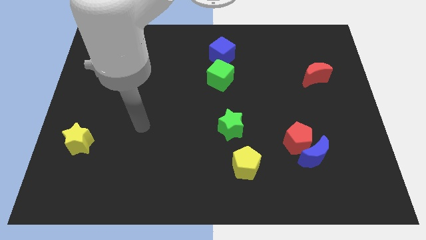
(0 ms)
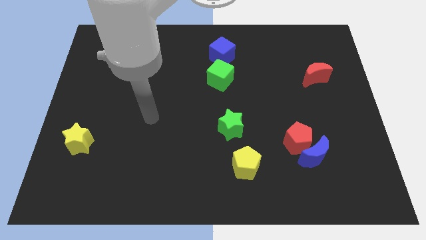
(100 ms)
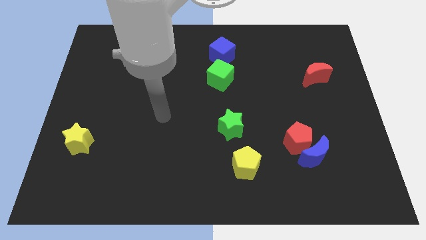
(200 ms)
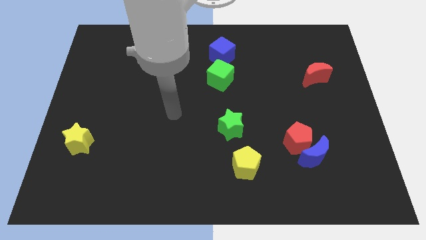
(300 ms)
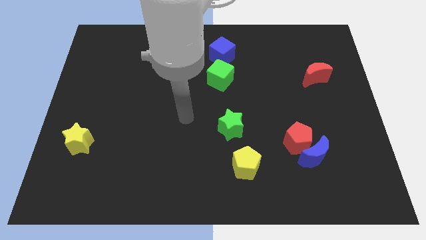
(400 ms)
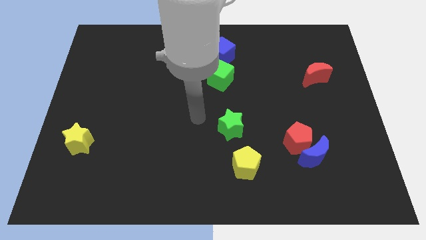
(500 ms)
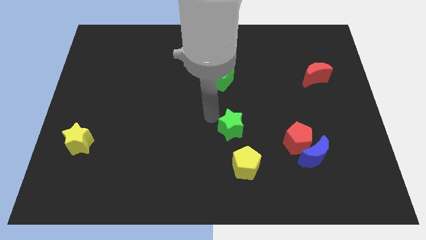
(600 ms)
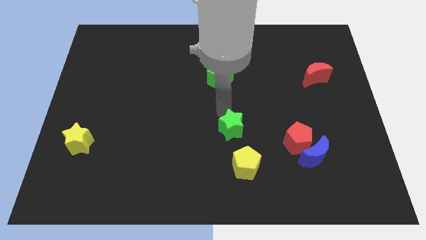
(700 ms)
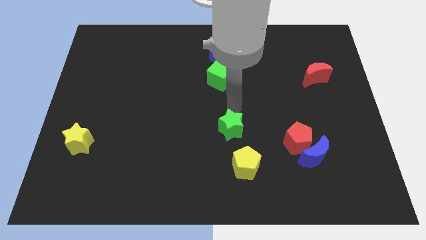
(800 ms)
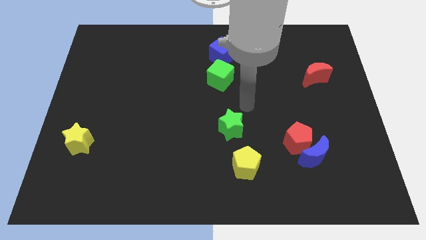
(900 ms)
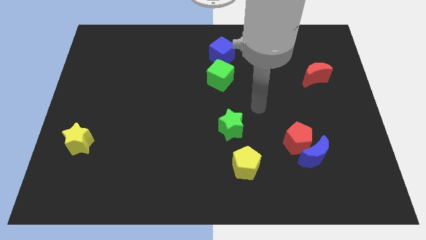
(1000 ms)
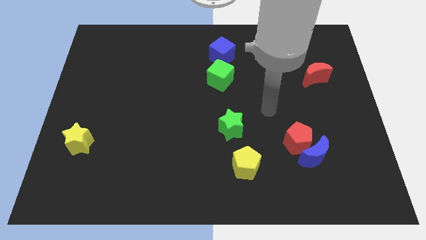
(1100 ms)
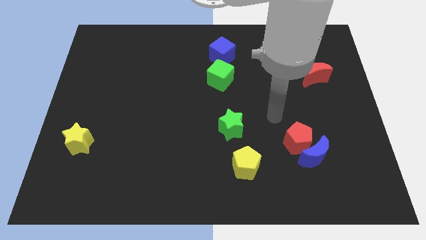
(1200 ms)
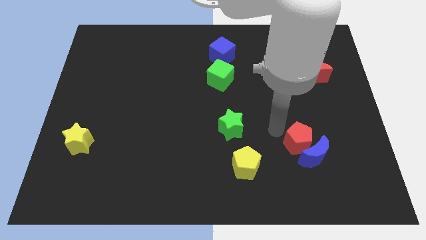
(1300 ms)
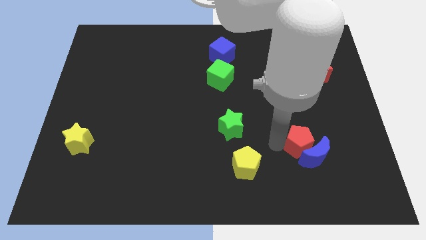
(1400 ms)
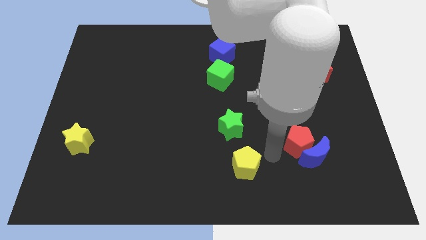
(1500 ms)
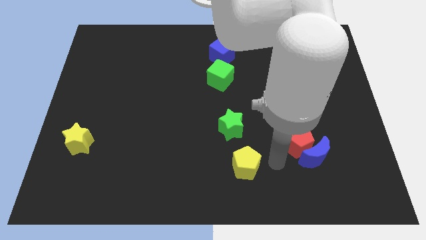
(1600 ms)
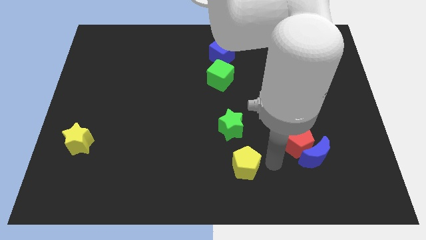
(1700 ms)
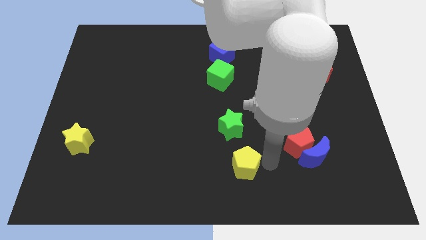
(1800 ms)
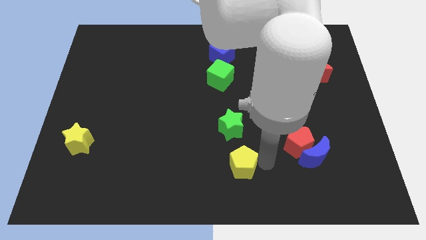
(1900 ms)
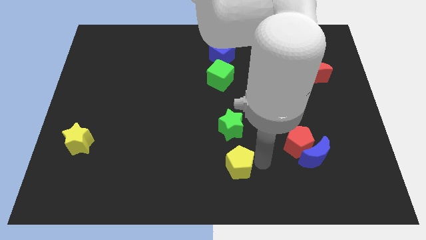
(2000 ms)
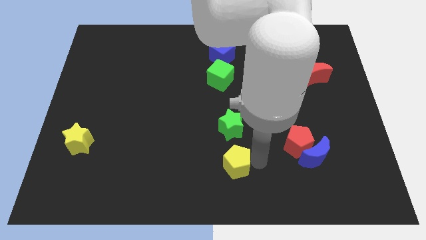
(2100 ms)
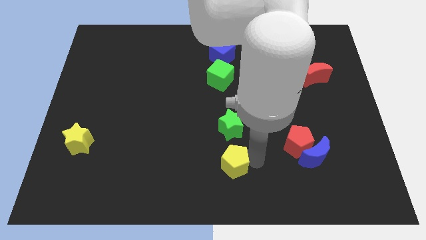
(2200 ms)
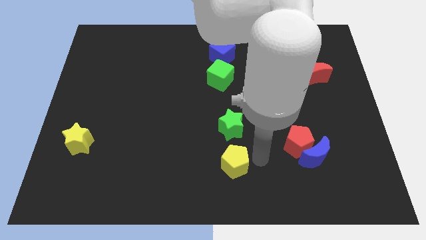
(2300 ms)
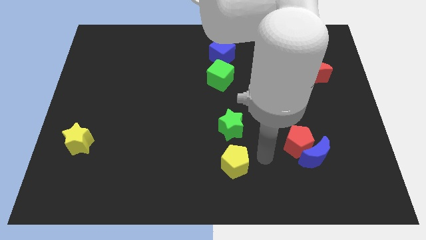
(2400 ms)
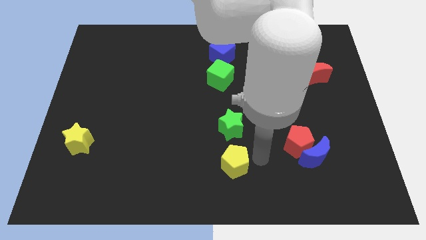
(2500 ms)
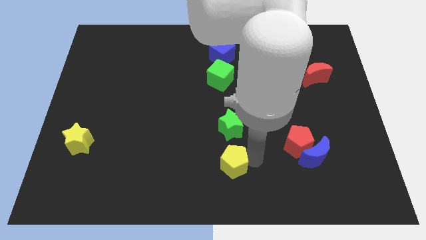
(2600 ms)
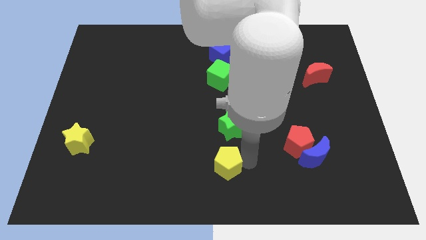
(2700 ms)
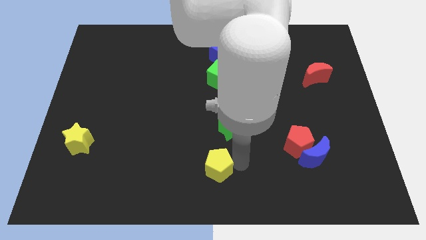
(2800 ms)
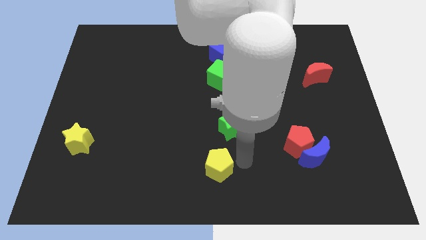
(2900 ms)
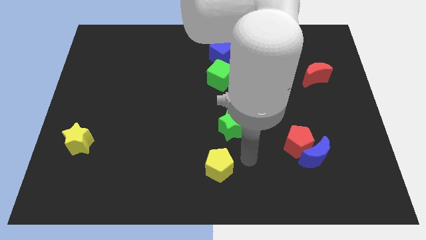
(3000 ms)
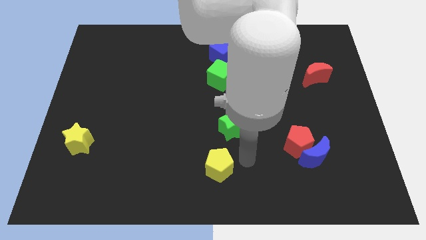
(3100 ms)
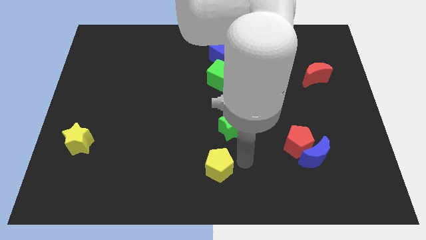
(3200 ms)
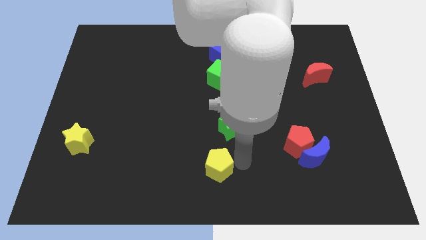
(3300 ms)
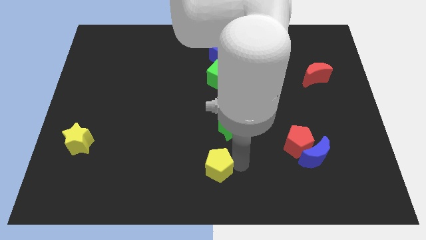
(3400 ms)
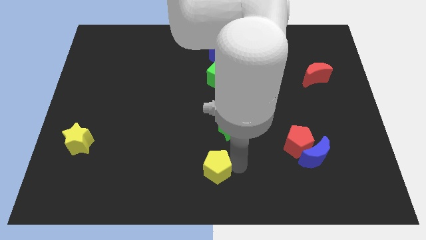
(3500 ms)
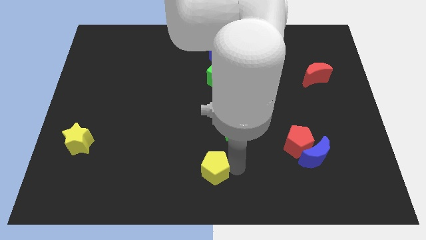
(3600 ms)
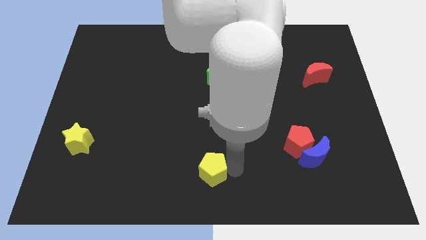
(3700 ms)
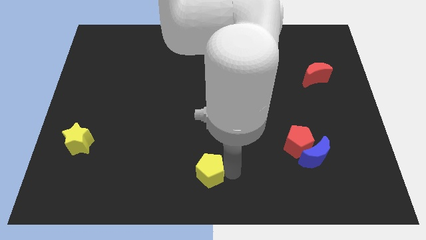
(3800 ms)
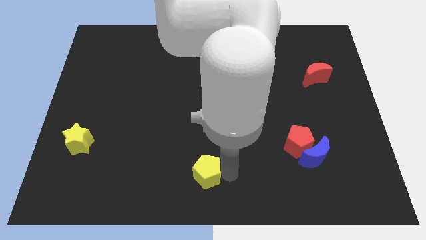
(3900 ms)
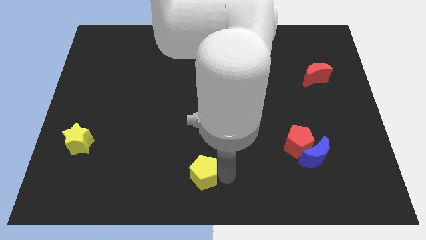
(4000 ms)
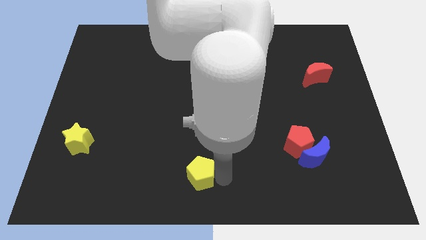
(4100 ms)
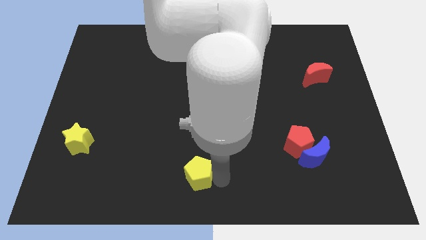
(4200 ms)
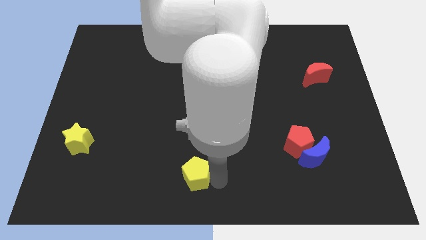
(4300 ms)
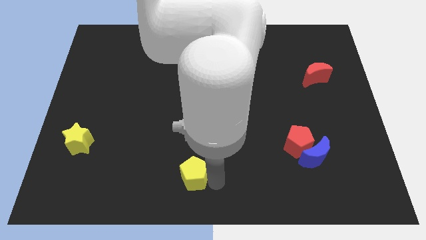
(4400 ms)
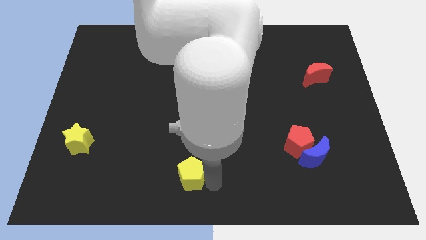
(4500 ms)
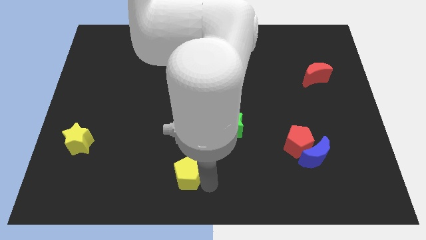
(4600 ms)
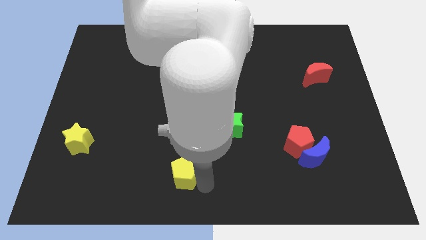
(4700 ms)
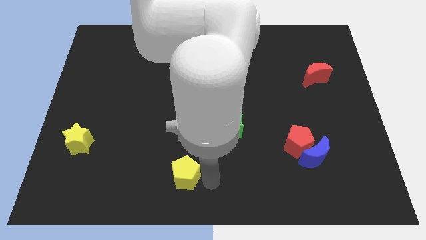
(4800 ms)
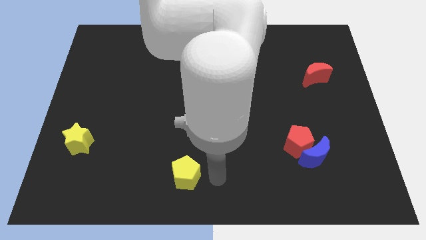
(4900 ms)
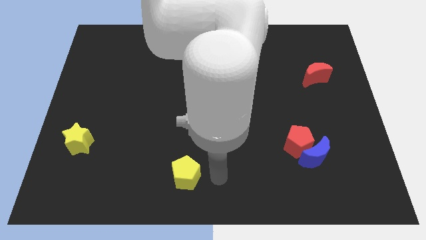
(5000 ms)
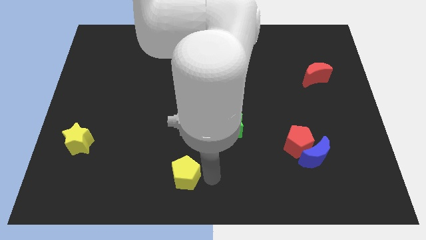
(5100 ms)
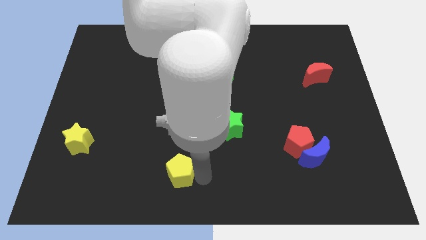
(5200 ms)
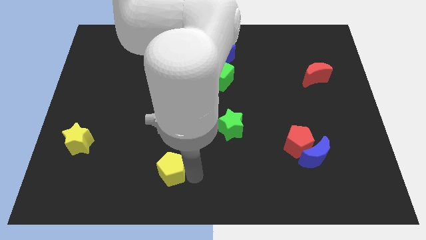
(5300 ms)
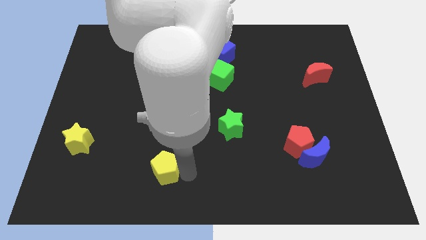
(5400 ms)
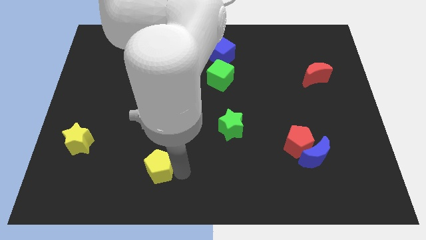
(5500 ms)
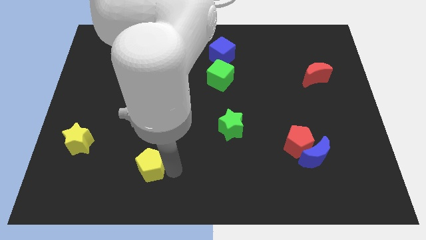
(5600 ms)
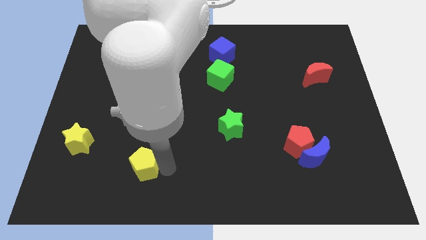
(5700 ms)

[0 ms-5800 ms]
push the yellow pentagon to the left

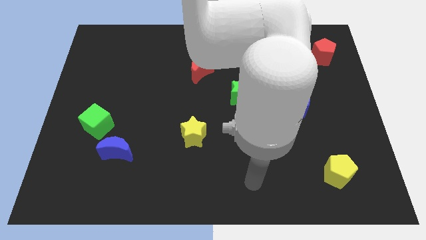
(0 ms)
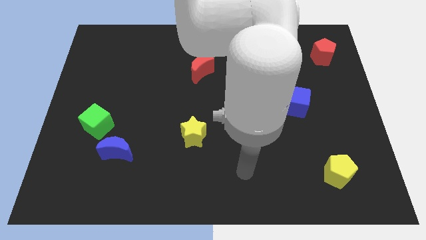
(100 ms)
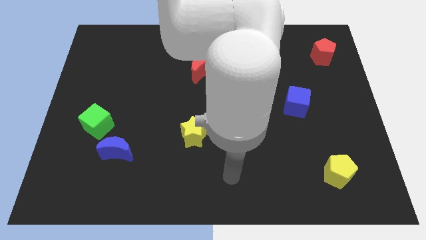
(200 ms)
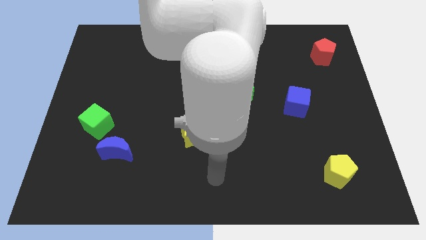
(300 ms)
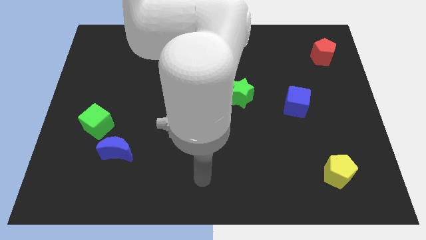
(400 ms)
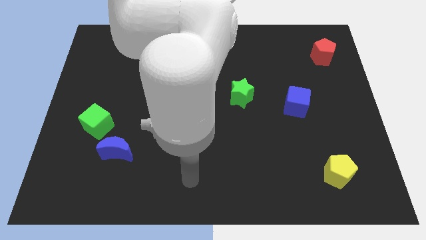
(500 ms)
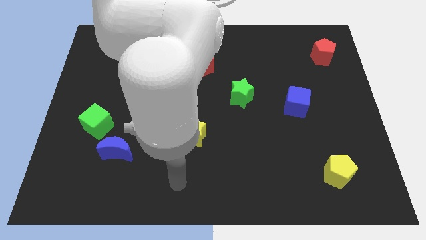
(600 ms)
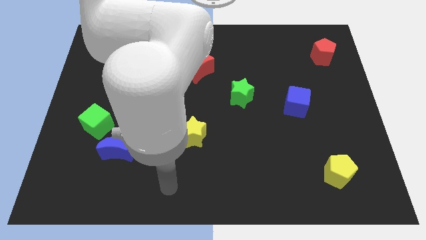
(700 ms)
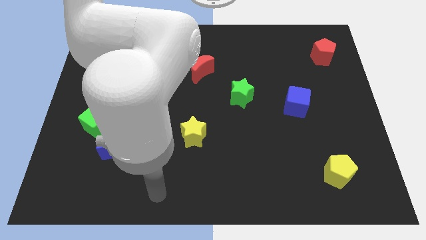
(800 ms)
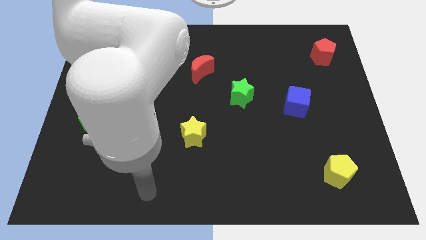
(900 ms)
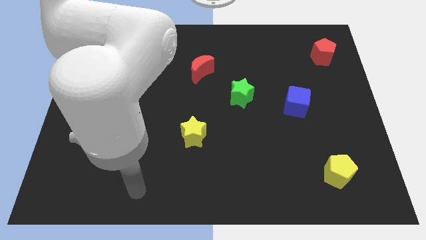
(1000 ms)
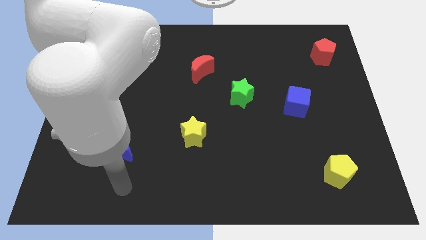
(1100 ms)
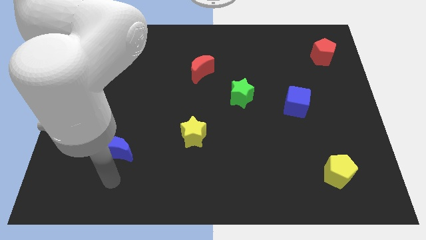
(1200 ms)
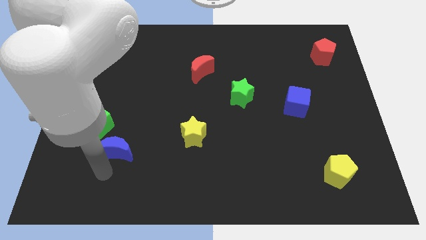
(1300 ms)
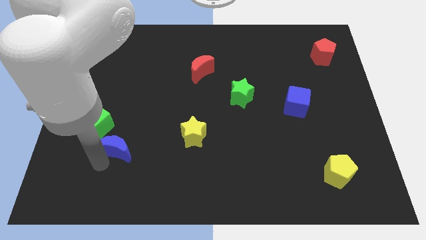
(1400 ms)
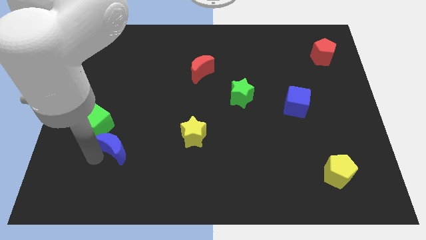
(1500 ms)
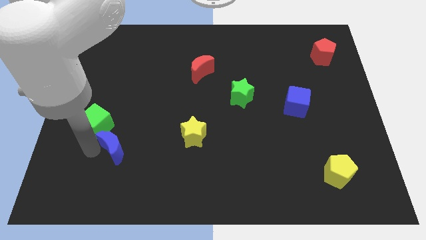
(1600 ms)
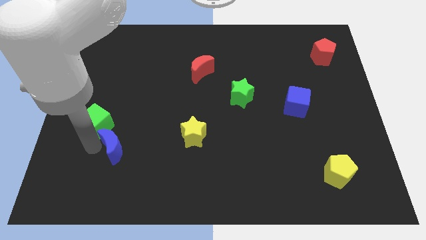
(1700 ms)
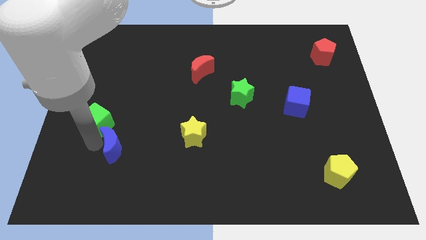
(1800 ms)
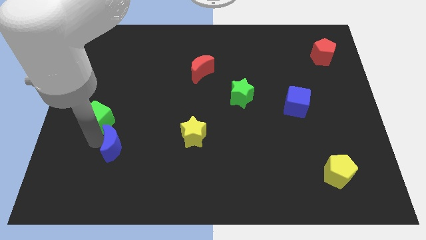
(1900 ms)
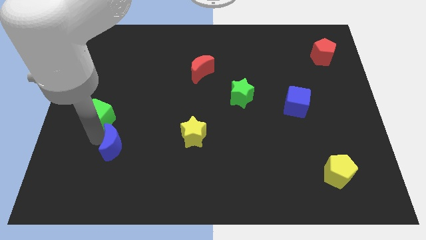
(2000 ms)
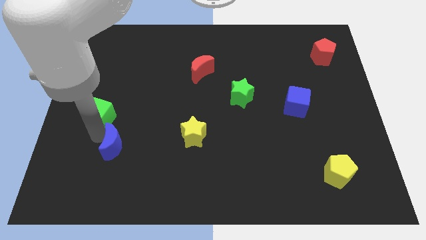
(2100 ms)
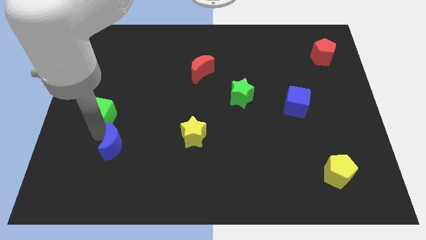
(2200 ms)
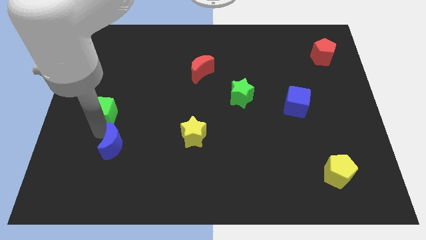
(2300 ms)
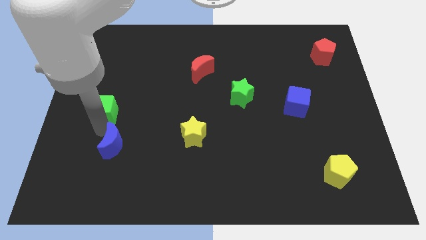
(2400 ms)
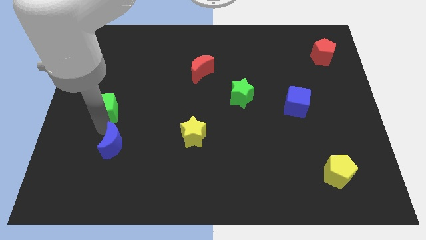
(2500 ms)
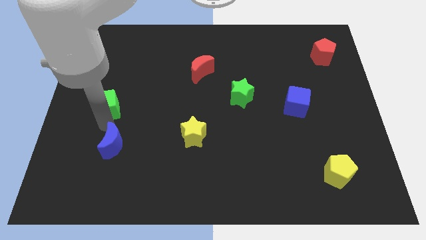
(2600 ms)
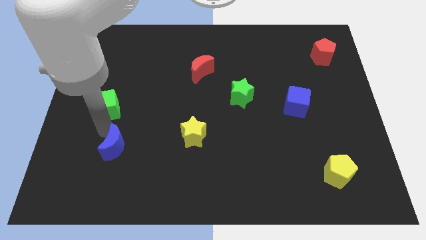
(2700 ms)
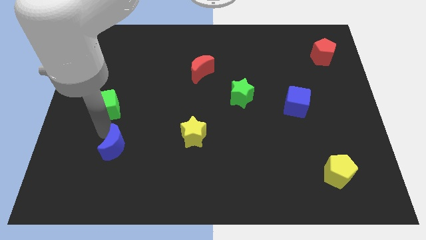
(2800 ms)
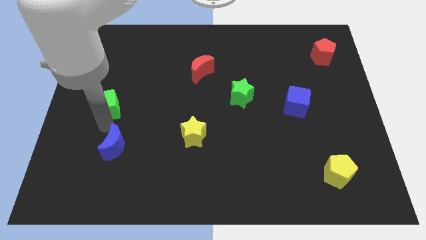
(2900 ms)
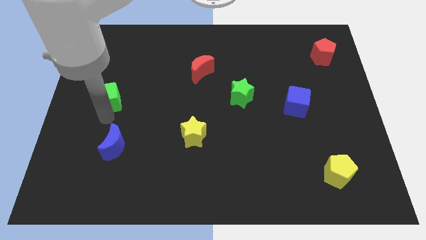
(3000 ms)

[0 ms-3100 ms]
push the green cube up a little
